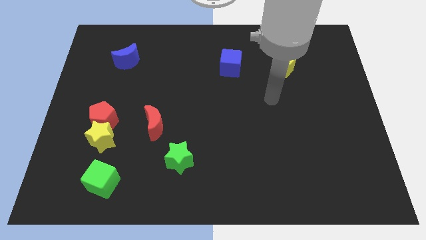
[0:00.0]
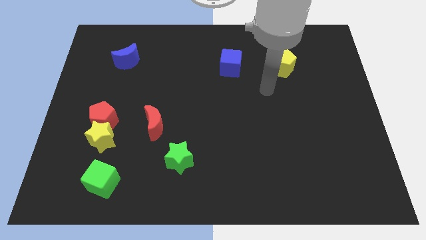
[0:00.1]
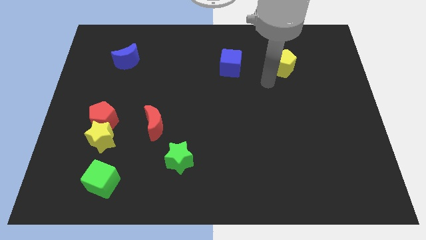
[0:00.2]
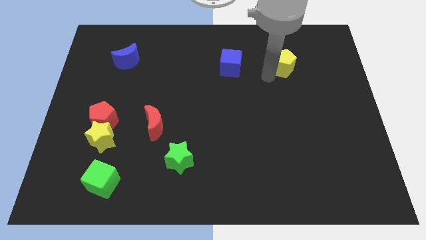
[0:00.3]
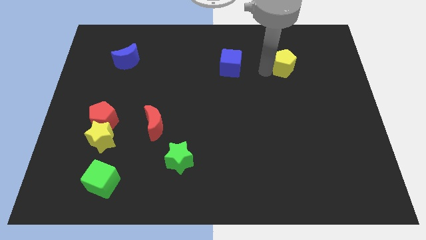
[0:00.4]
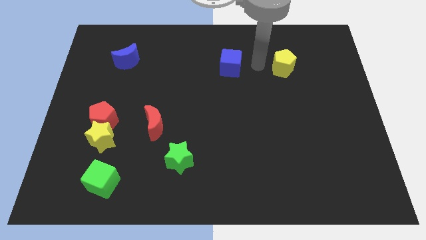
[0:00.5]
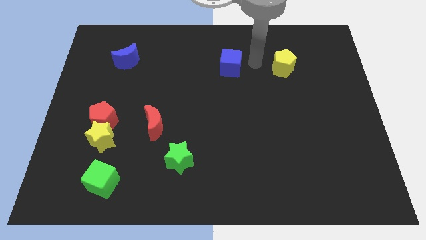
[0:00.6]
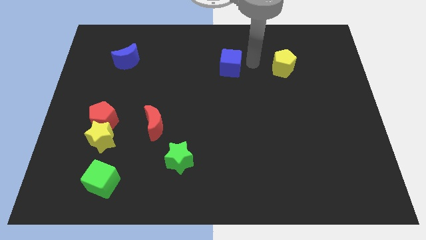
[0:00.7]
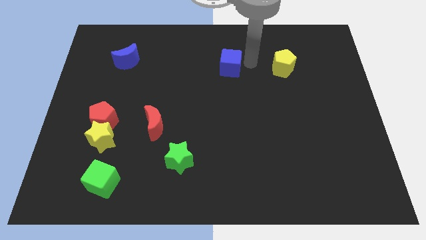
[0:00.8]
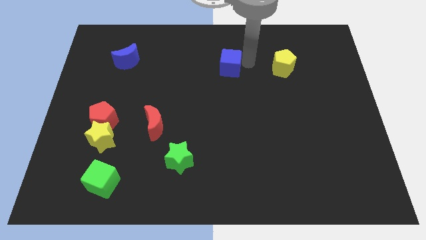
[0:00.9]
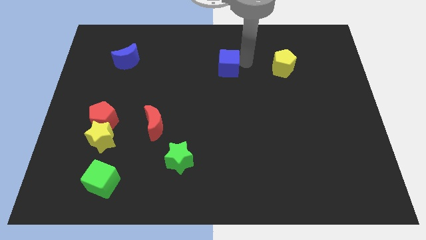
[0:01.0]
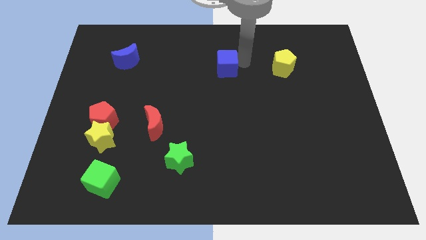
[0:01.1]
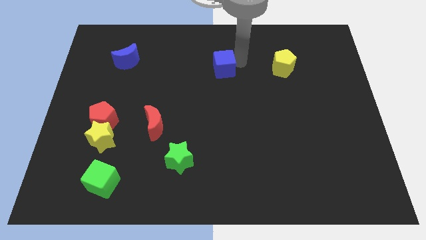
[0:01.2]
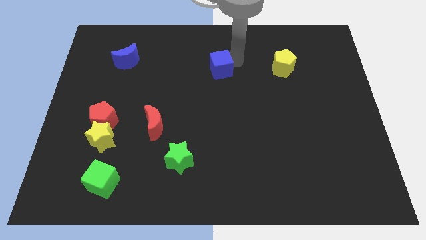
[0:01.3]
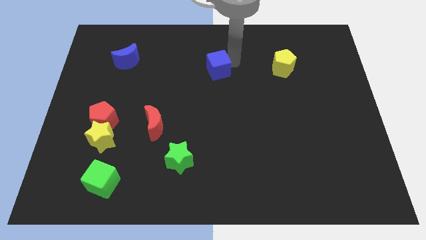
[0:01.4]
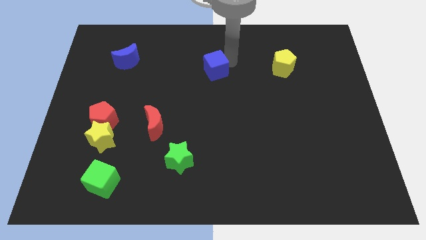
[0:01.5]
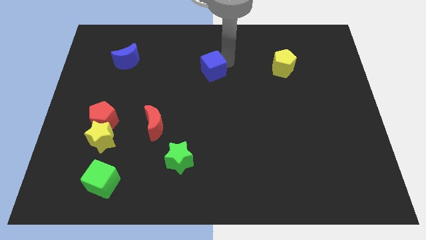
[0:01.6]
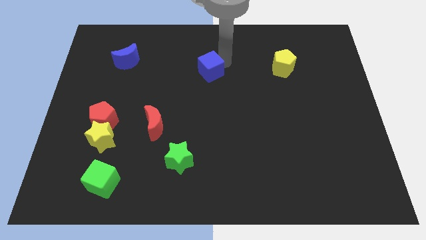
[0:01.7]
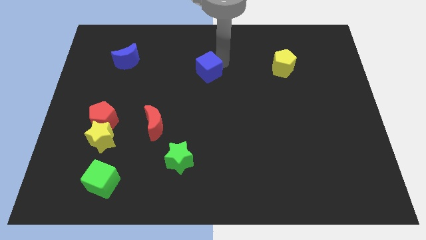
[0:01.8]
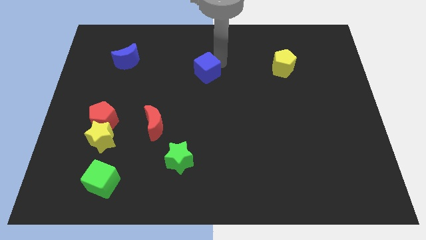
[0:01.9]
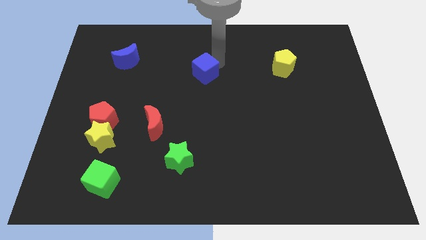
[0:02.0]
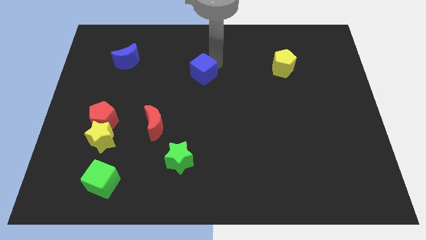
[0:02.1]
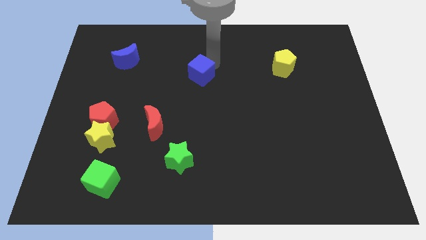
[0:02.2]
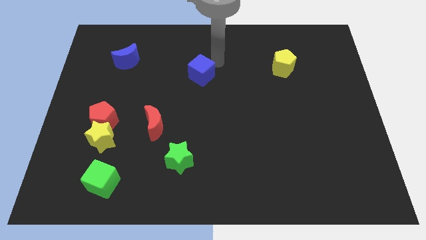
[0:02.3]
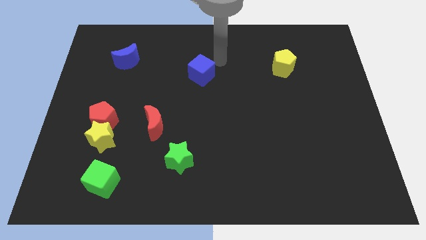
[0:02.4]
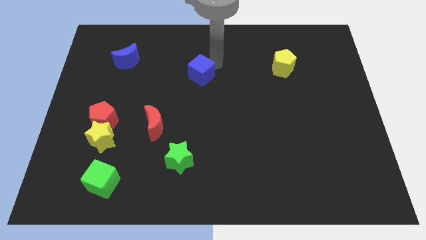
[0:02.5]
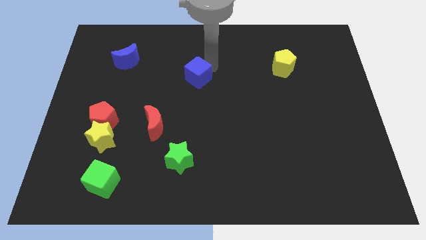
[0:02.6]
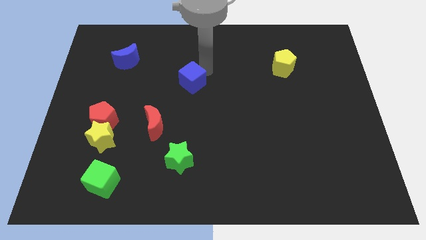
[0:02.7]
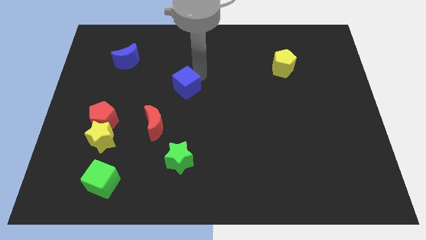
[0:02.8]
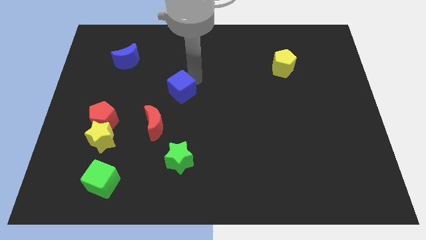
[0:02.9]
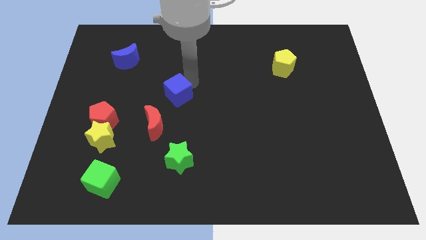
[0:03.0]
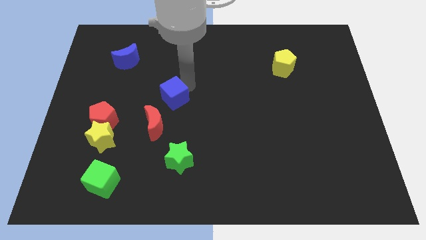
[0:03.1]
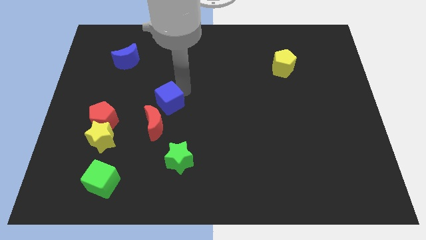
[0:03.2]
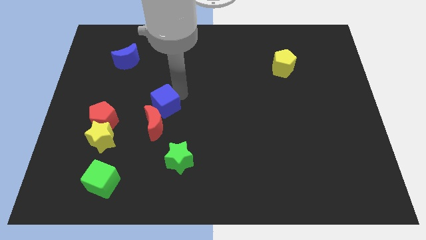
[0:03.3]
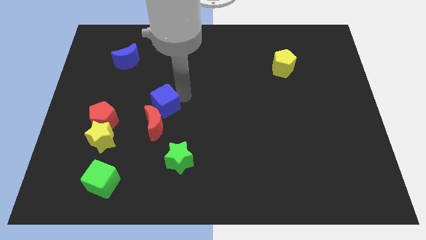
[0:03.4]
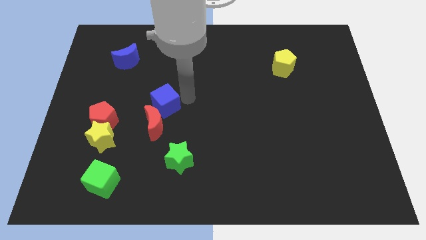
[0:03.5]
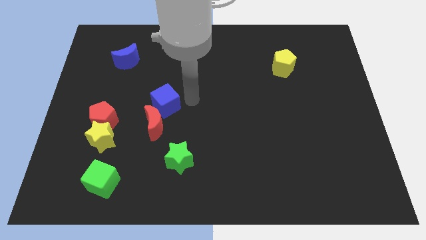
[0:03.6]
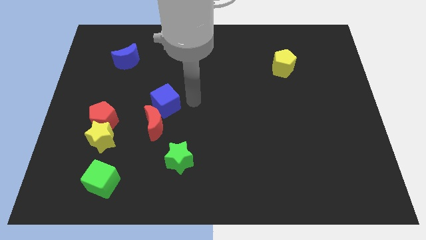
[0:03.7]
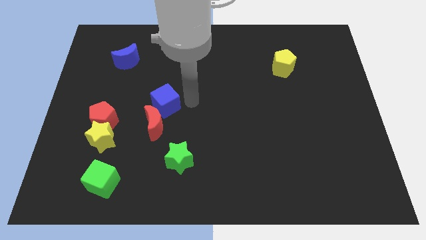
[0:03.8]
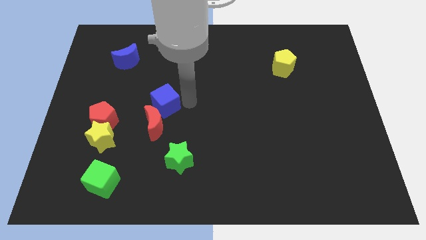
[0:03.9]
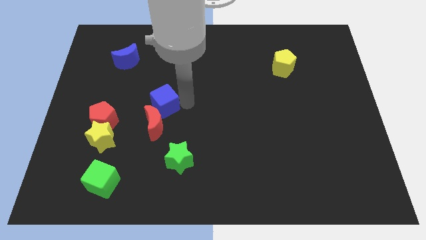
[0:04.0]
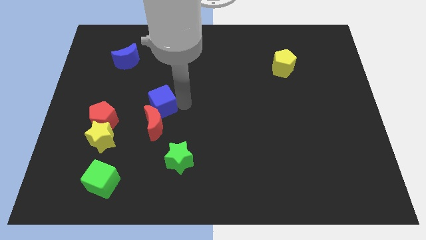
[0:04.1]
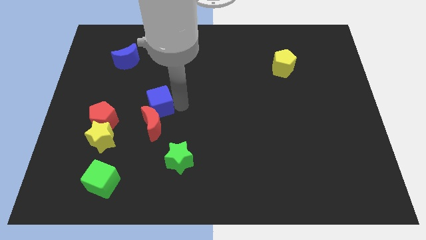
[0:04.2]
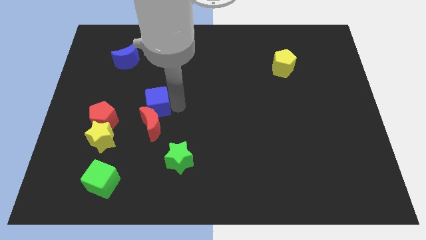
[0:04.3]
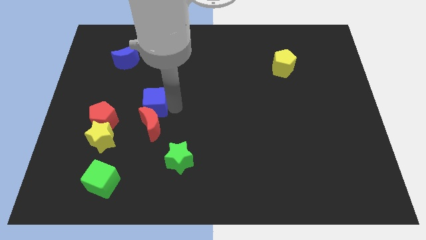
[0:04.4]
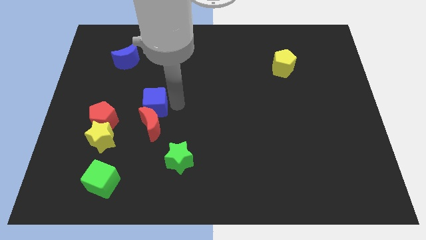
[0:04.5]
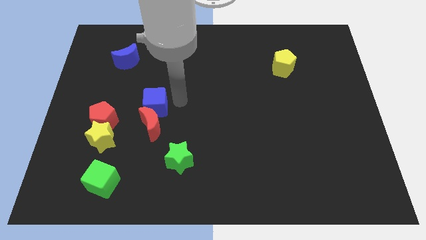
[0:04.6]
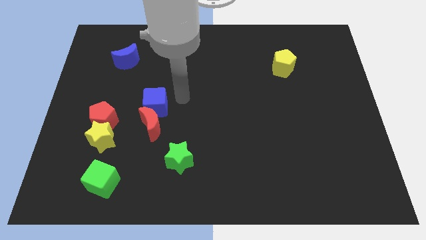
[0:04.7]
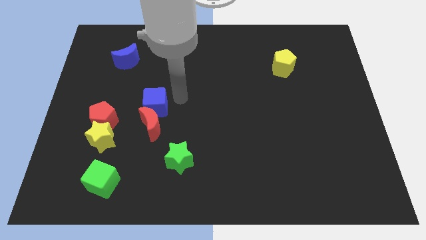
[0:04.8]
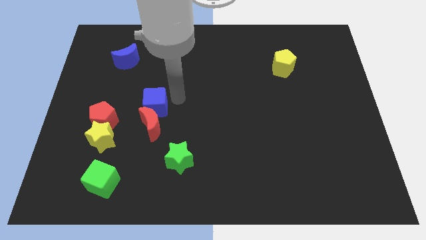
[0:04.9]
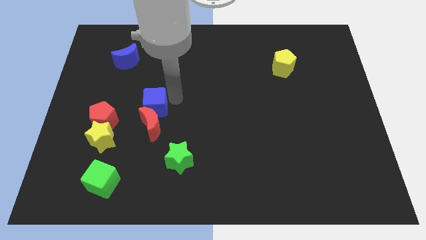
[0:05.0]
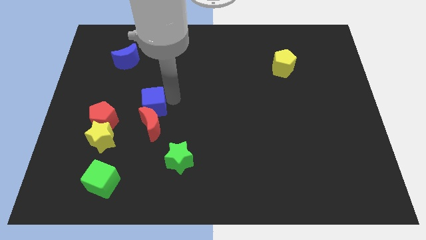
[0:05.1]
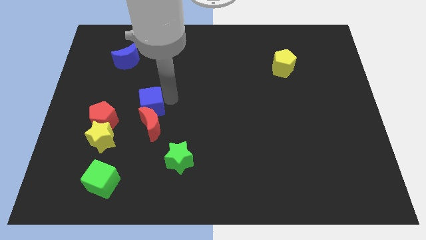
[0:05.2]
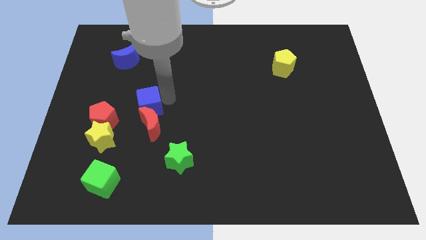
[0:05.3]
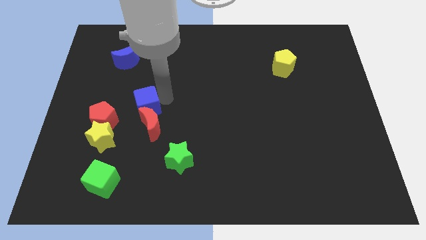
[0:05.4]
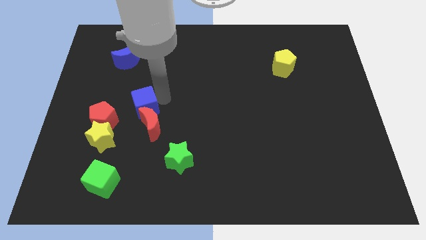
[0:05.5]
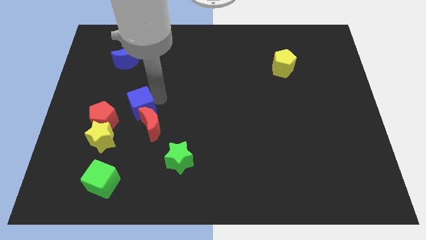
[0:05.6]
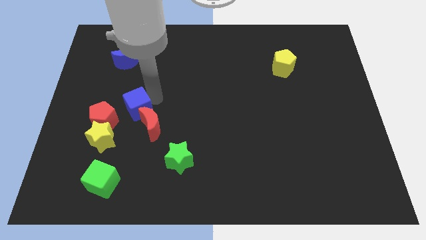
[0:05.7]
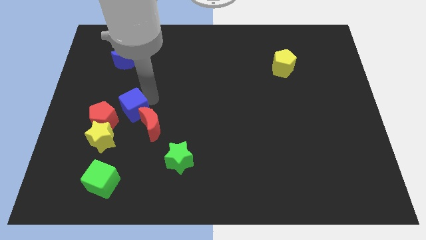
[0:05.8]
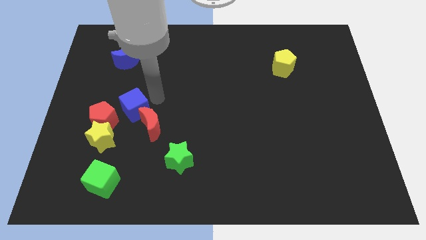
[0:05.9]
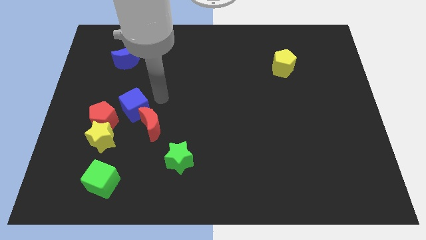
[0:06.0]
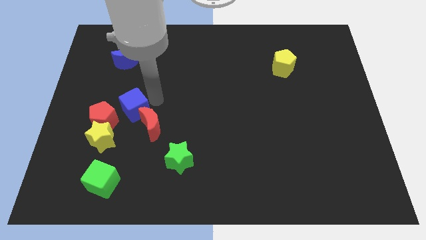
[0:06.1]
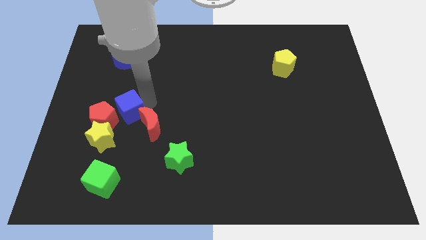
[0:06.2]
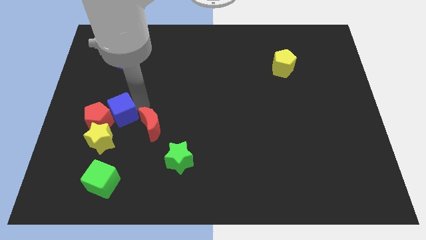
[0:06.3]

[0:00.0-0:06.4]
push the blue cube next to the red pentagon
